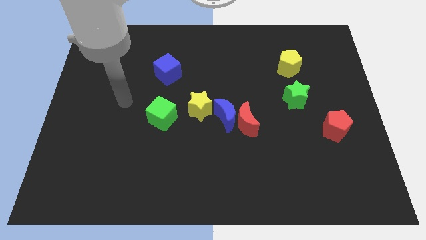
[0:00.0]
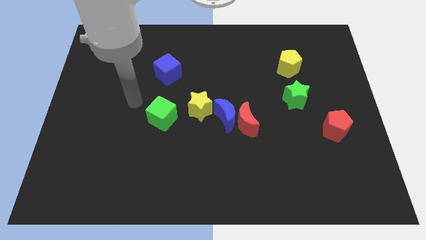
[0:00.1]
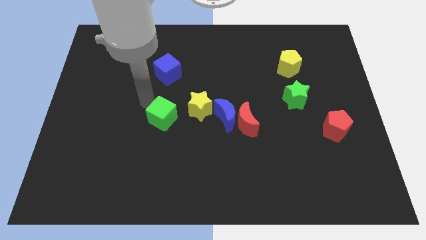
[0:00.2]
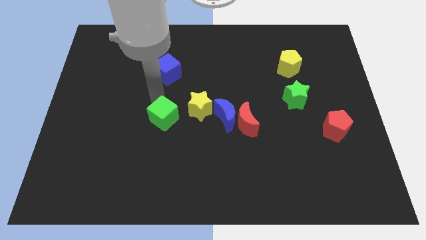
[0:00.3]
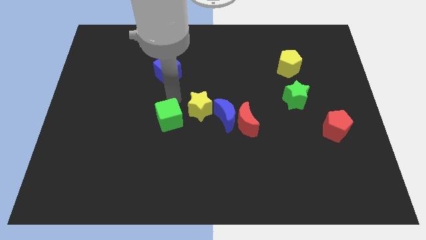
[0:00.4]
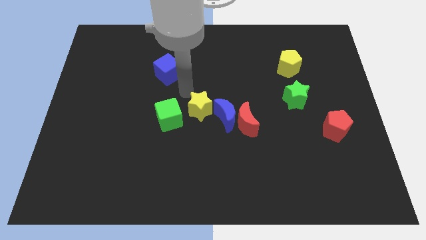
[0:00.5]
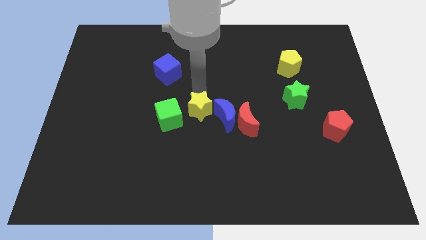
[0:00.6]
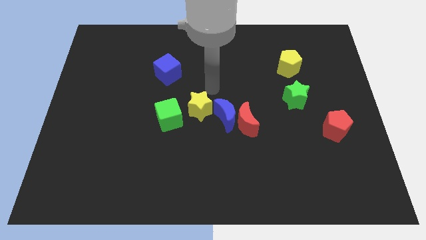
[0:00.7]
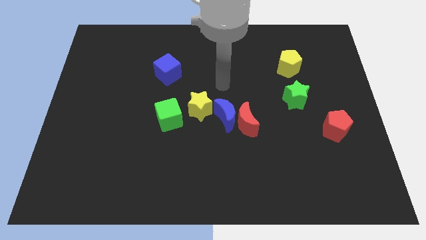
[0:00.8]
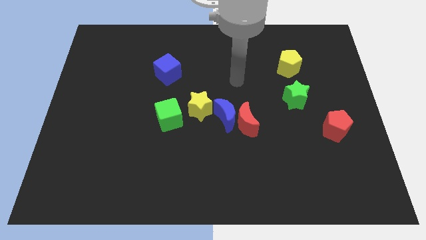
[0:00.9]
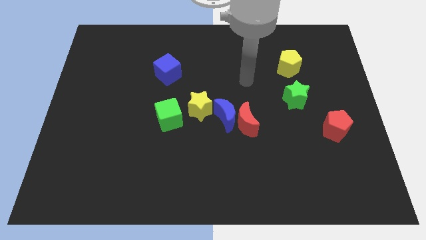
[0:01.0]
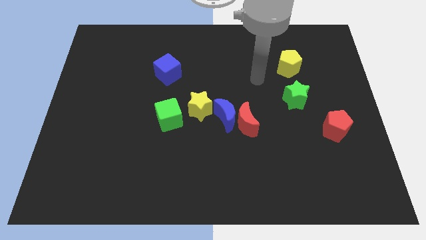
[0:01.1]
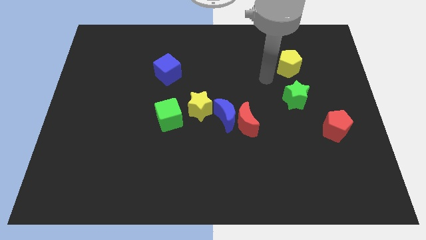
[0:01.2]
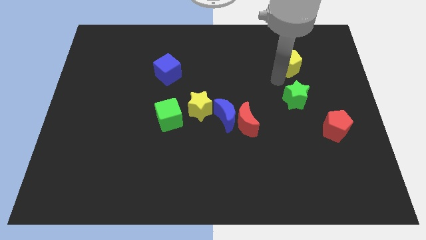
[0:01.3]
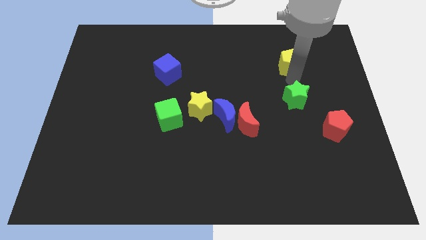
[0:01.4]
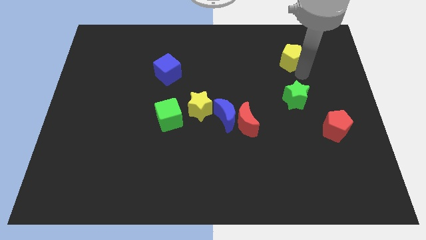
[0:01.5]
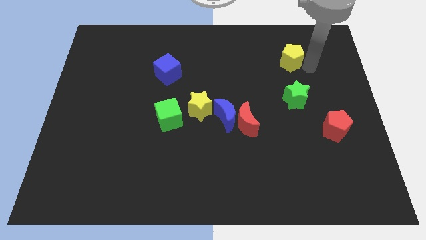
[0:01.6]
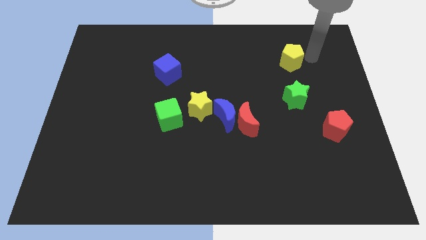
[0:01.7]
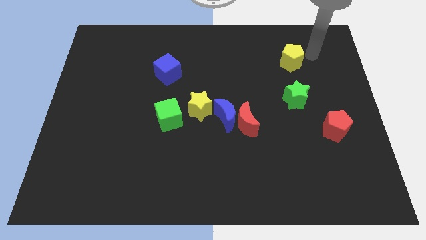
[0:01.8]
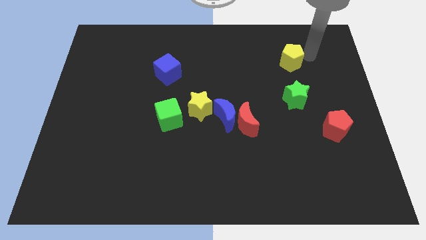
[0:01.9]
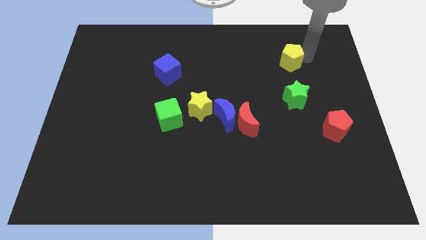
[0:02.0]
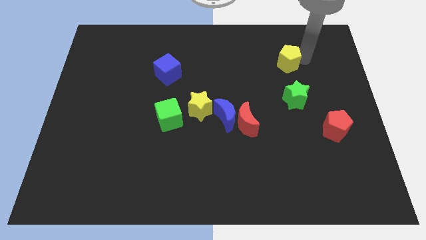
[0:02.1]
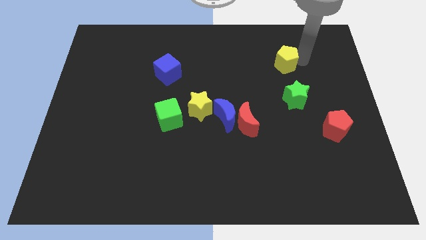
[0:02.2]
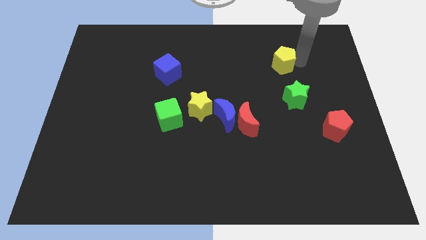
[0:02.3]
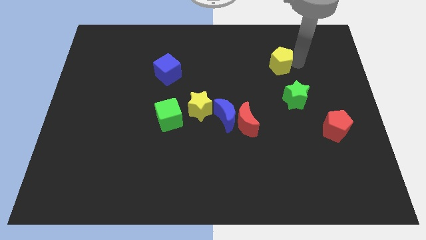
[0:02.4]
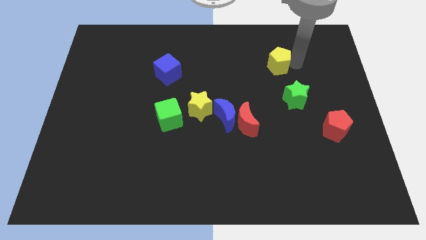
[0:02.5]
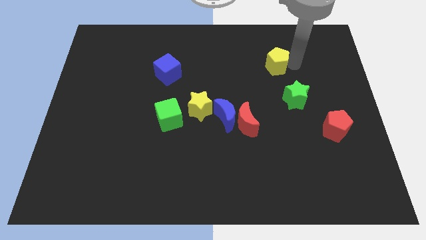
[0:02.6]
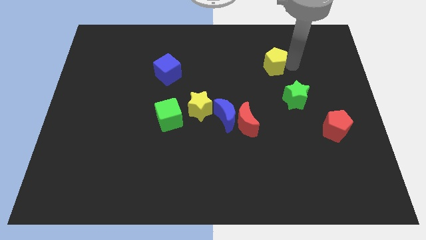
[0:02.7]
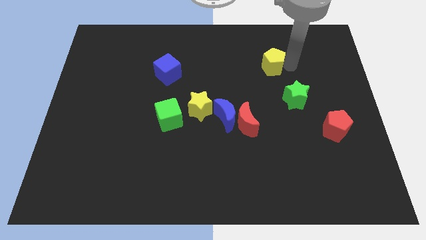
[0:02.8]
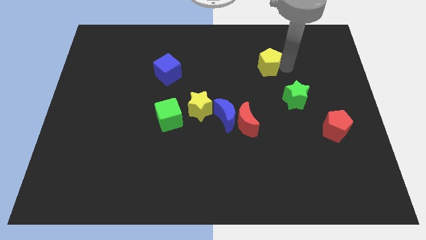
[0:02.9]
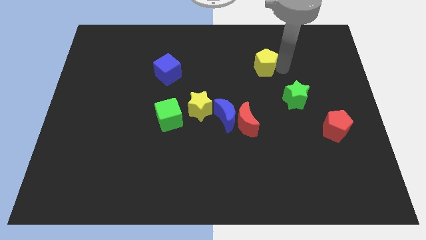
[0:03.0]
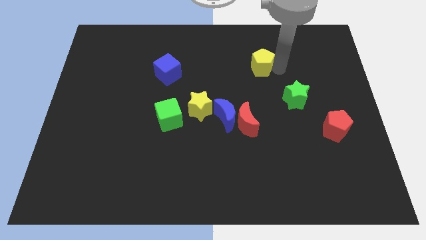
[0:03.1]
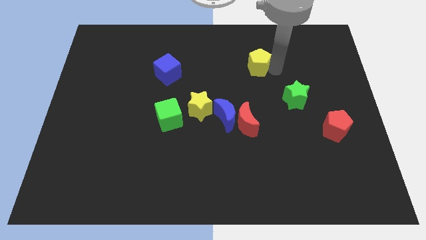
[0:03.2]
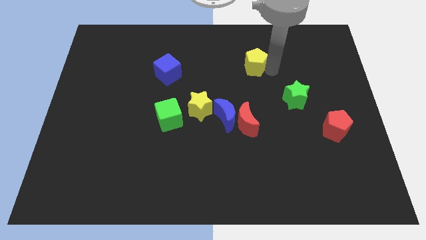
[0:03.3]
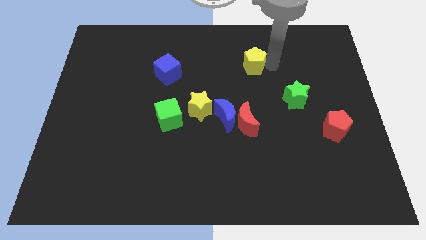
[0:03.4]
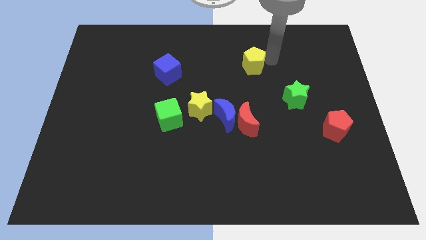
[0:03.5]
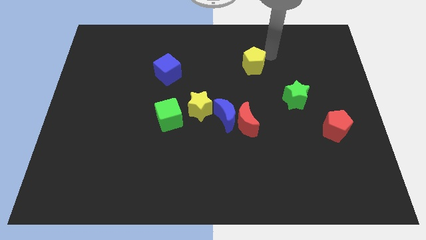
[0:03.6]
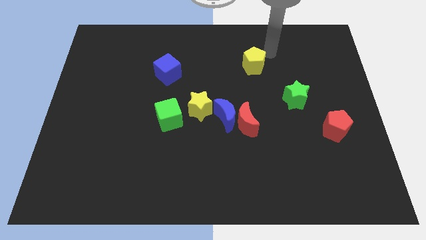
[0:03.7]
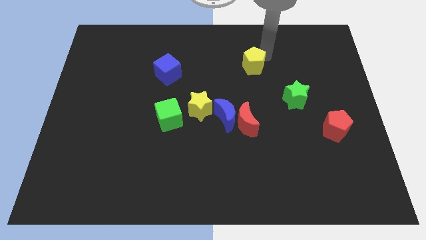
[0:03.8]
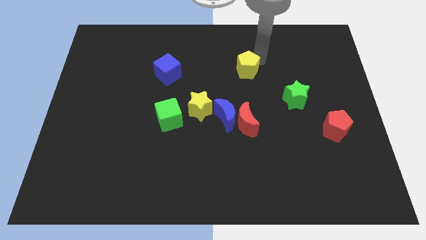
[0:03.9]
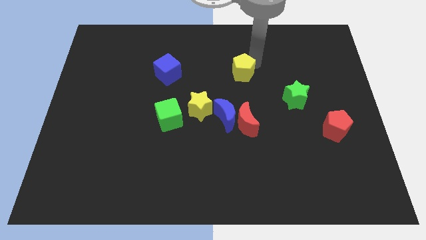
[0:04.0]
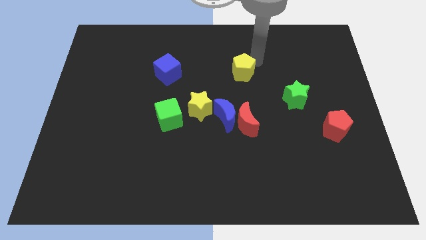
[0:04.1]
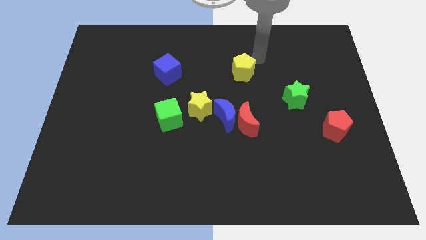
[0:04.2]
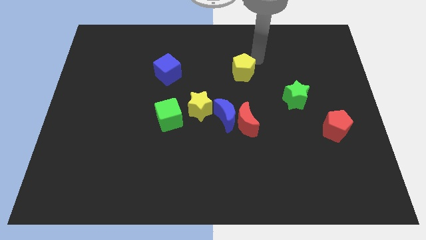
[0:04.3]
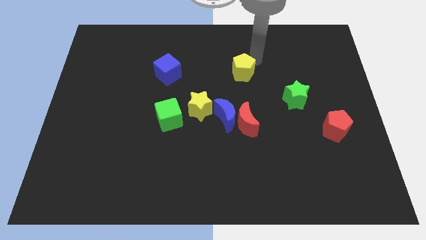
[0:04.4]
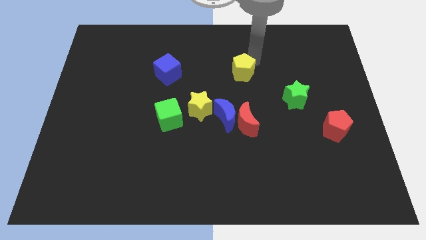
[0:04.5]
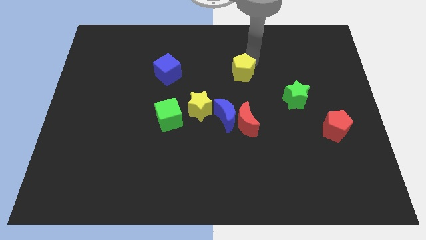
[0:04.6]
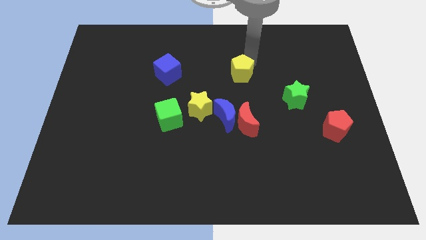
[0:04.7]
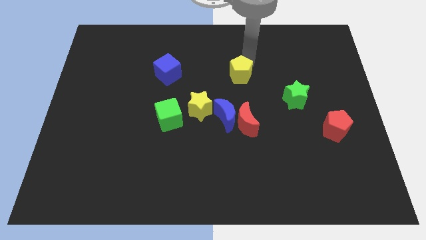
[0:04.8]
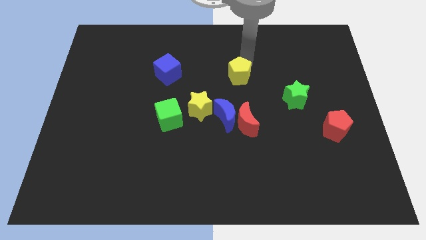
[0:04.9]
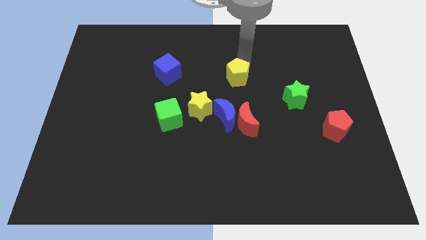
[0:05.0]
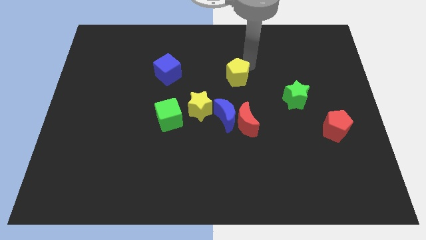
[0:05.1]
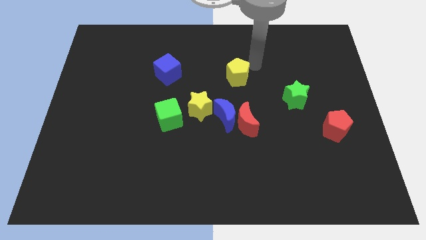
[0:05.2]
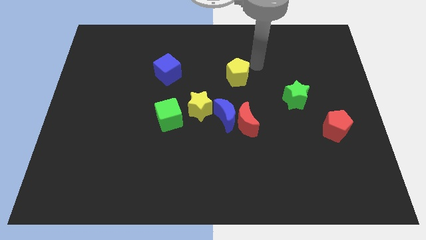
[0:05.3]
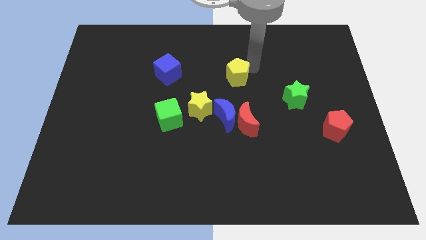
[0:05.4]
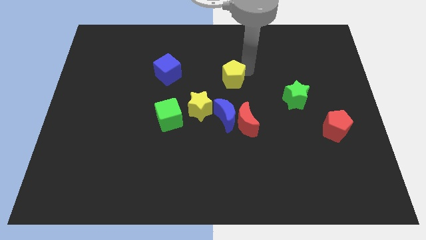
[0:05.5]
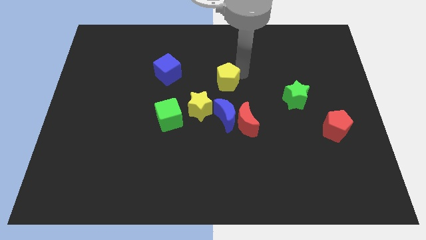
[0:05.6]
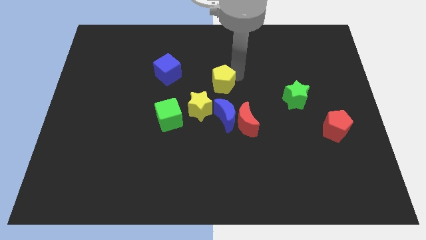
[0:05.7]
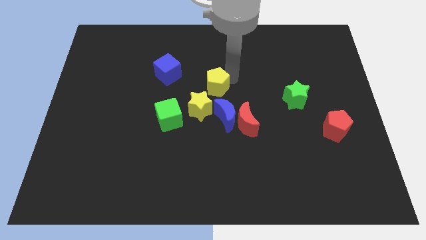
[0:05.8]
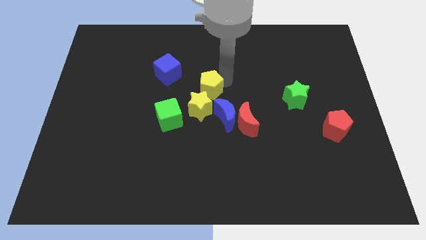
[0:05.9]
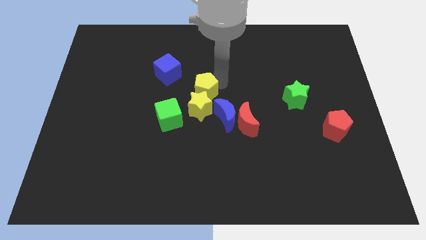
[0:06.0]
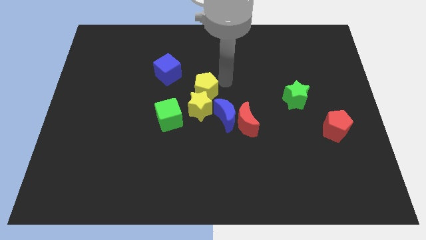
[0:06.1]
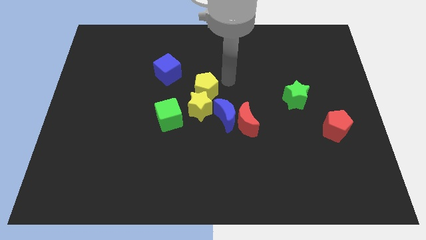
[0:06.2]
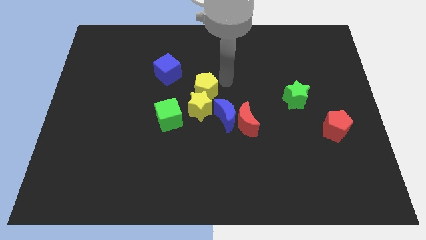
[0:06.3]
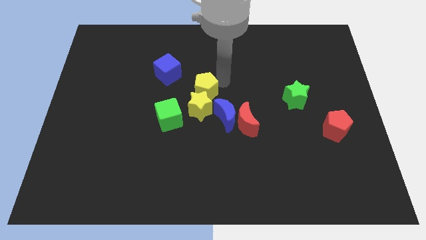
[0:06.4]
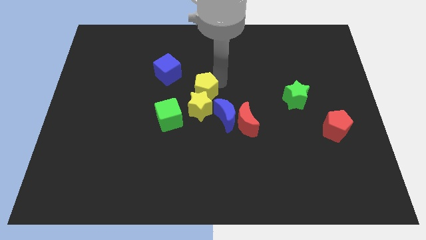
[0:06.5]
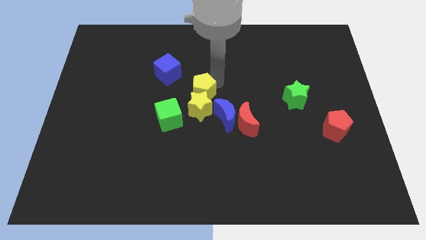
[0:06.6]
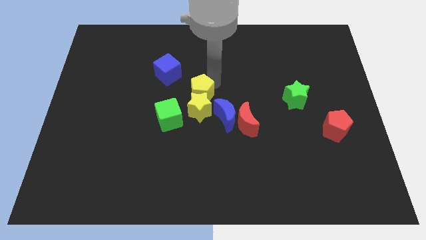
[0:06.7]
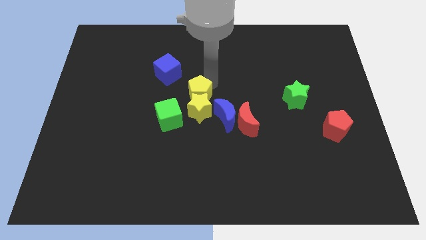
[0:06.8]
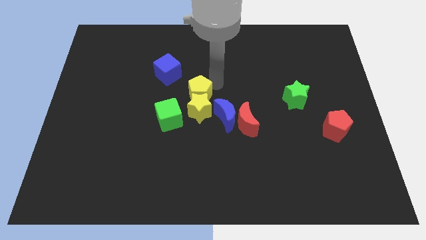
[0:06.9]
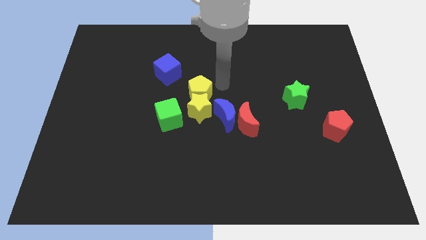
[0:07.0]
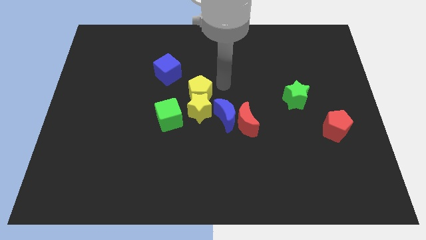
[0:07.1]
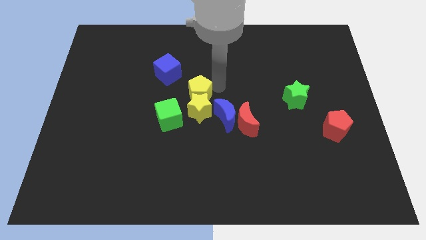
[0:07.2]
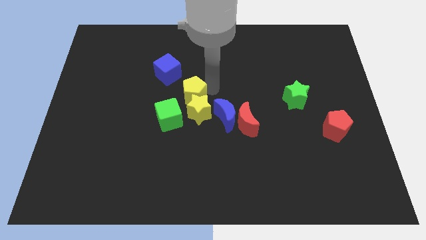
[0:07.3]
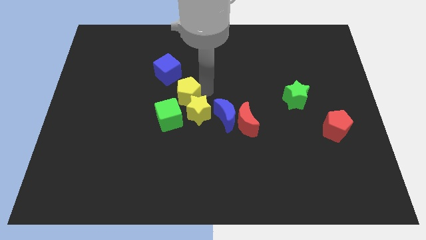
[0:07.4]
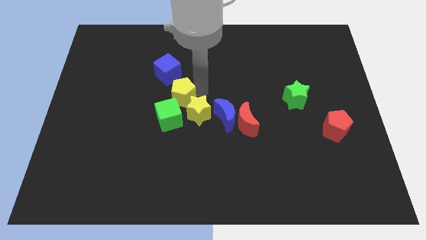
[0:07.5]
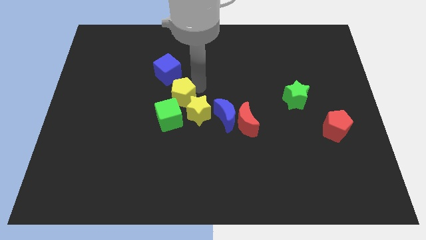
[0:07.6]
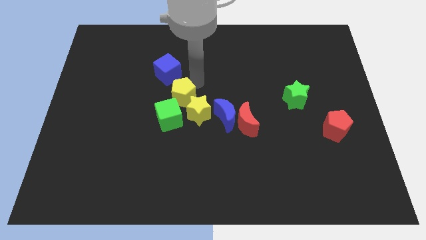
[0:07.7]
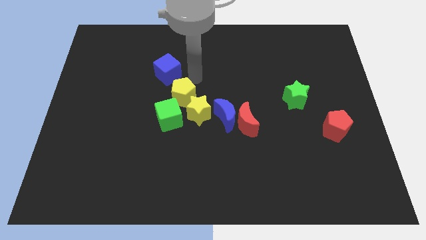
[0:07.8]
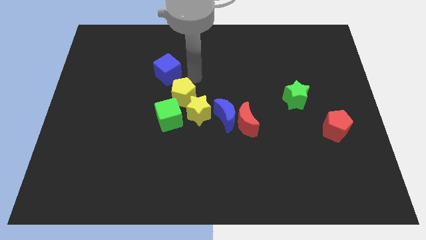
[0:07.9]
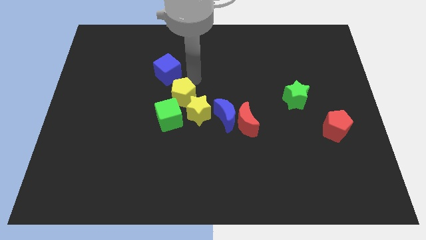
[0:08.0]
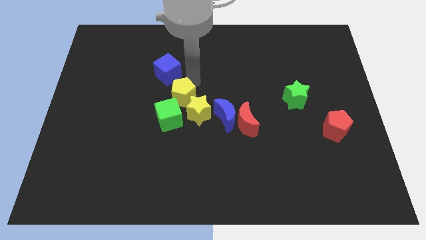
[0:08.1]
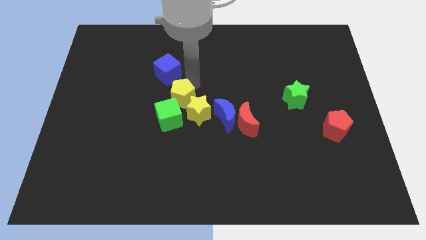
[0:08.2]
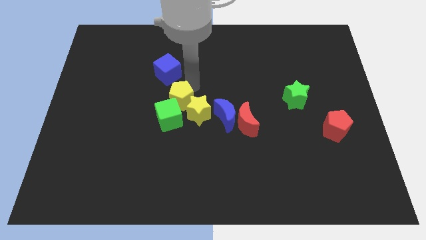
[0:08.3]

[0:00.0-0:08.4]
slide the yellow pentagon to the green cube
